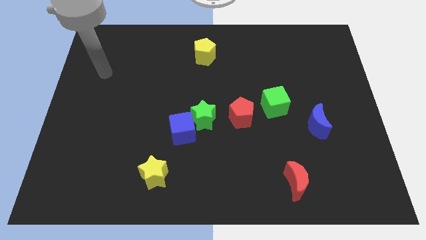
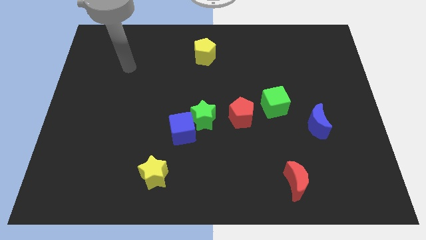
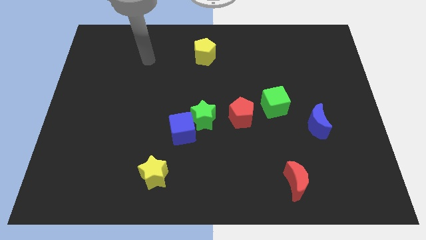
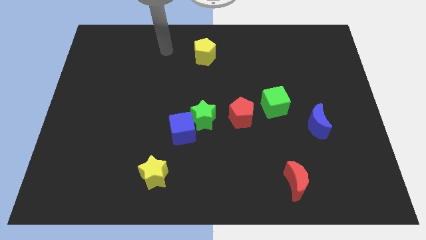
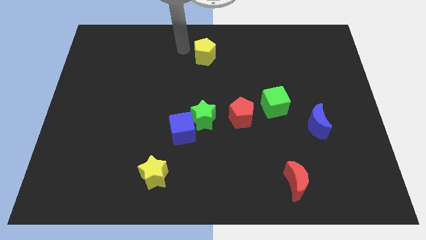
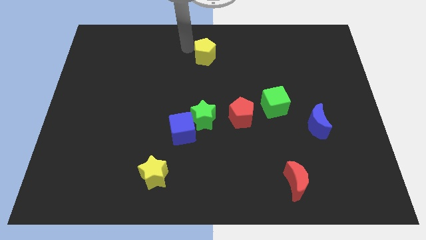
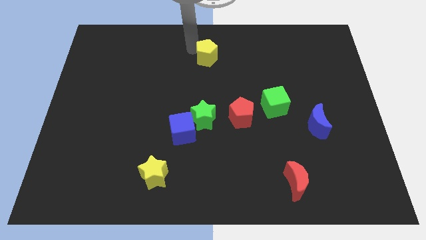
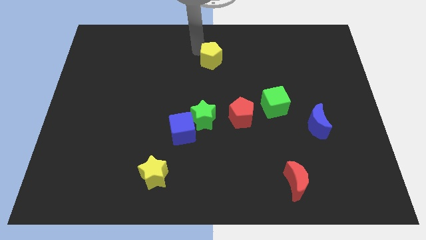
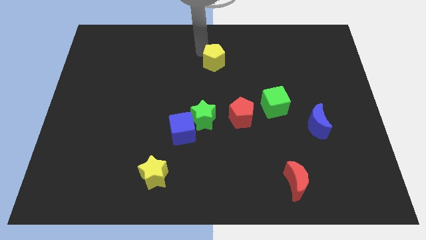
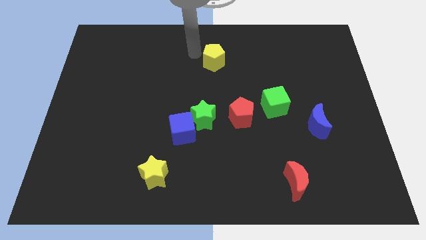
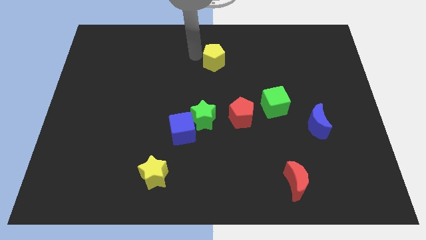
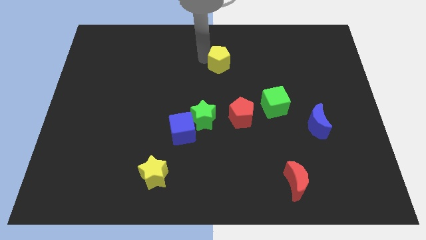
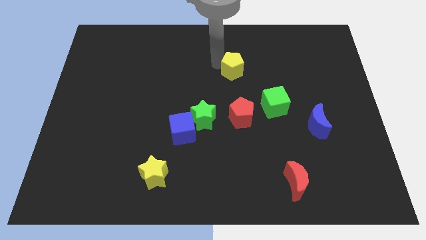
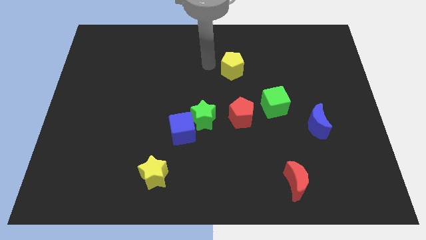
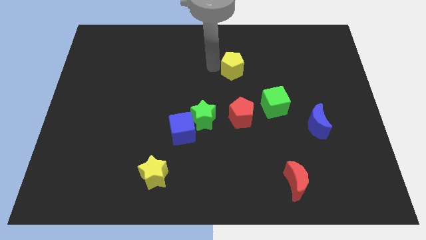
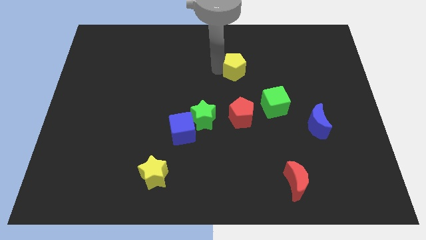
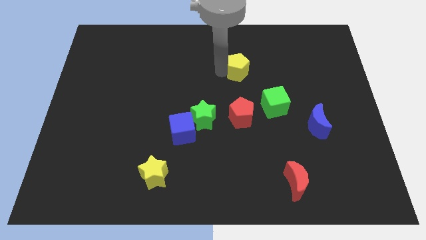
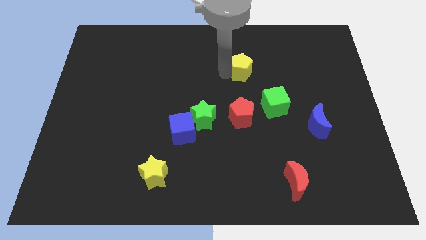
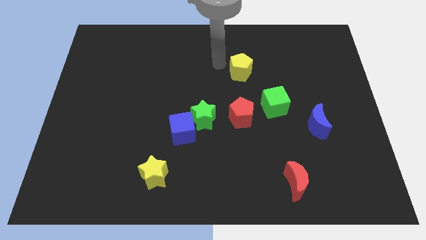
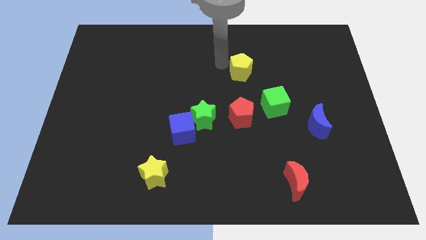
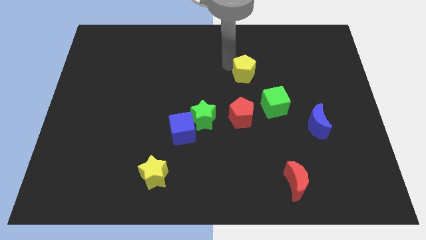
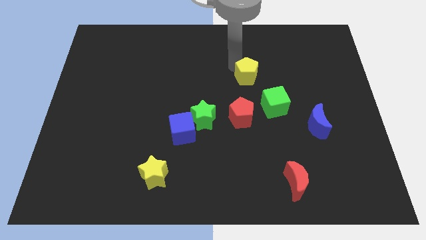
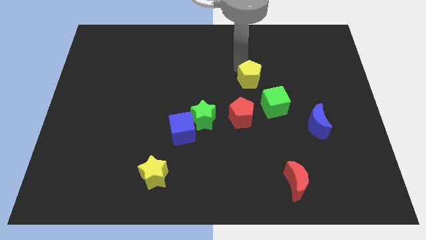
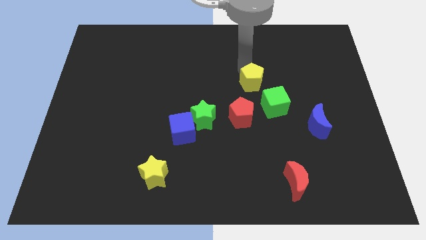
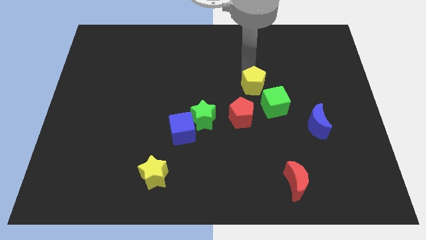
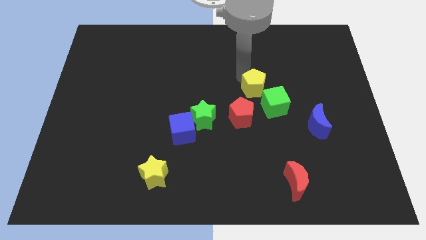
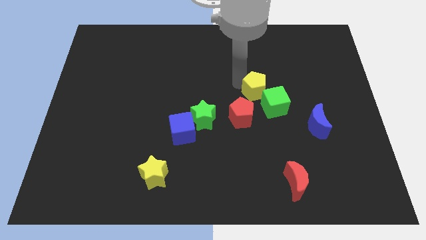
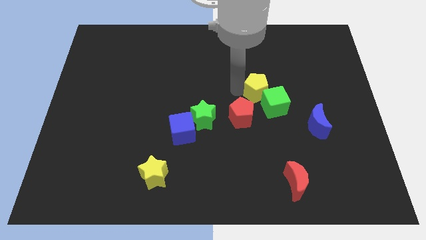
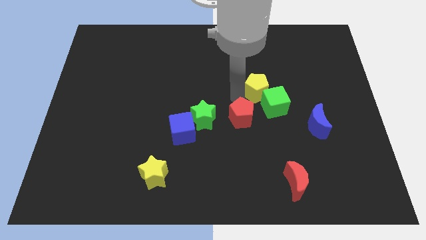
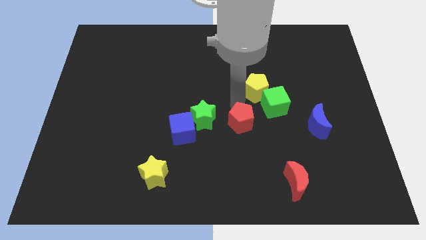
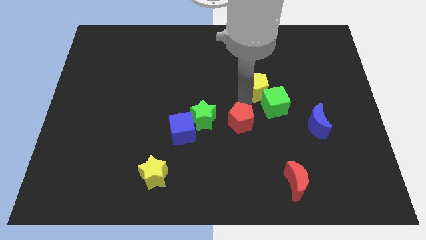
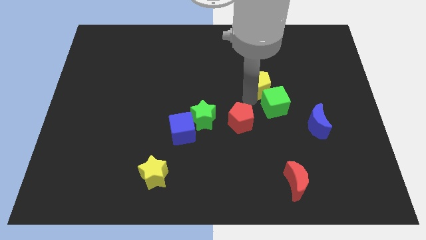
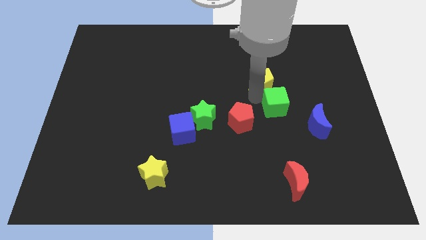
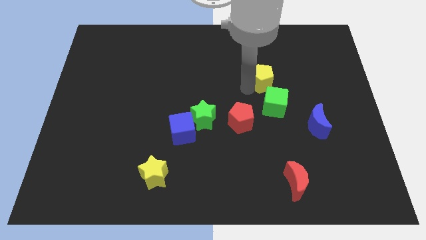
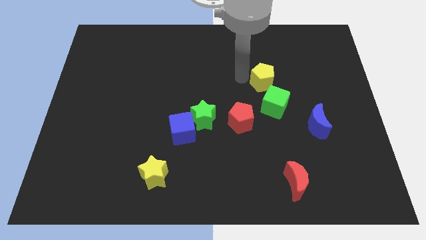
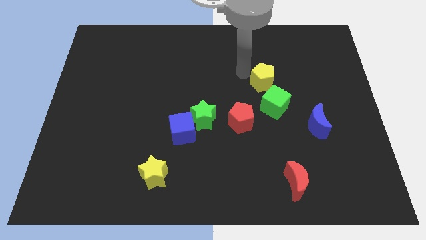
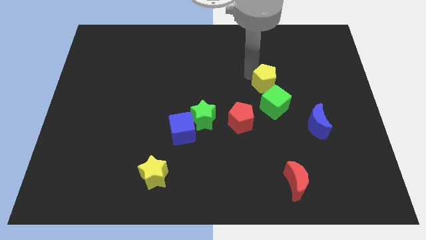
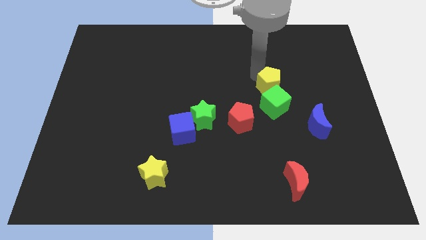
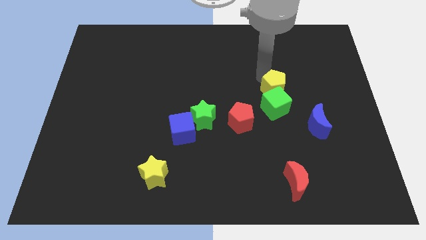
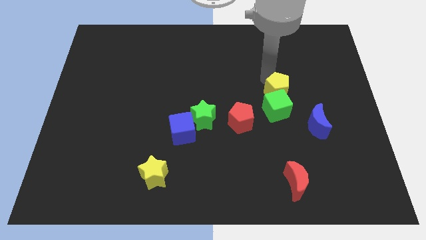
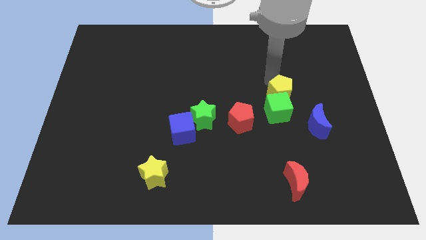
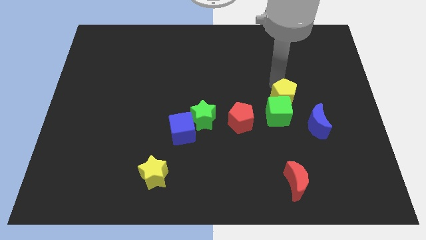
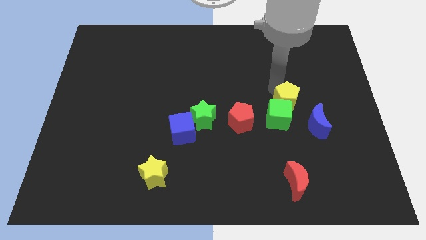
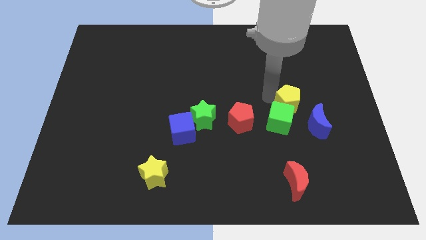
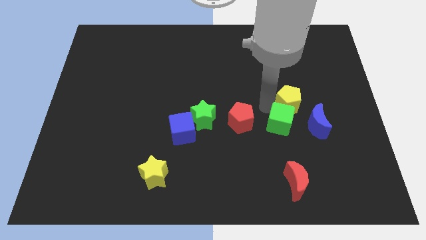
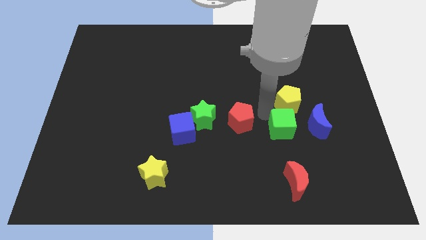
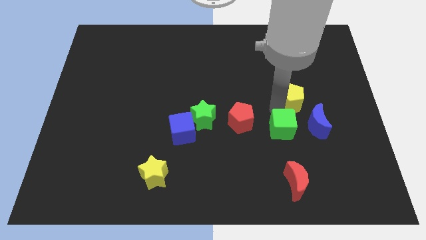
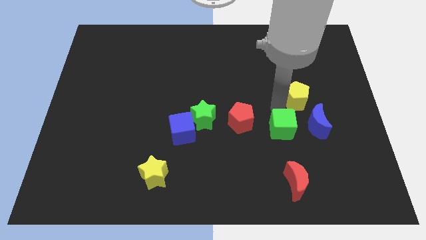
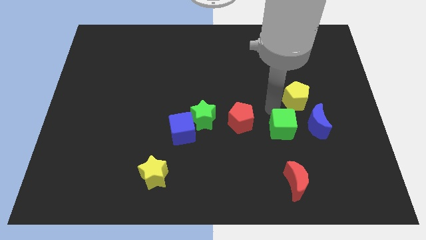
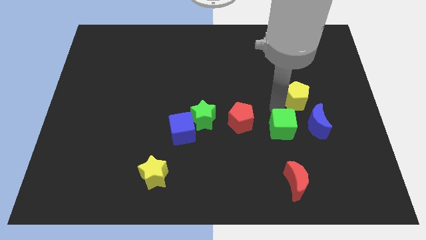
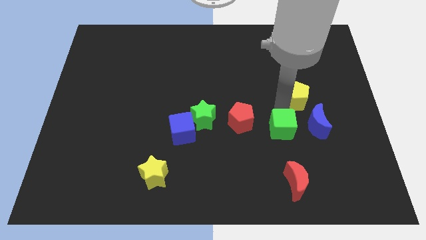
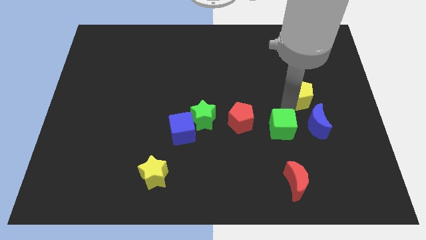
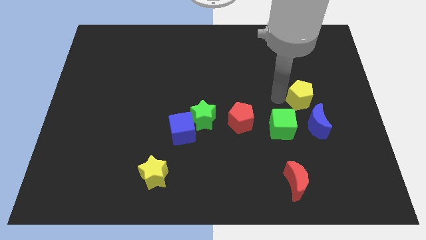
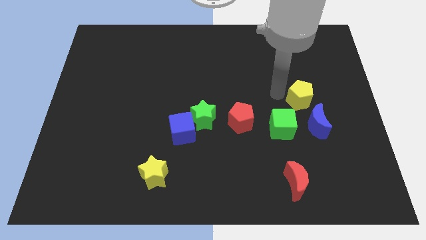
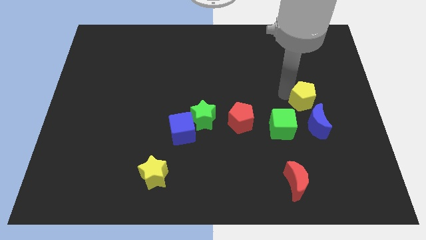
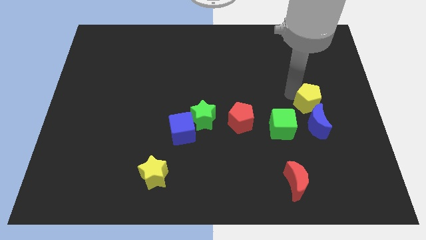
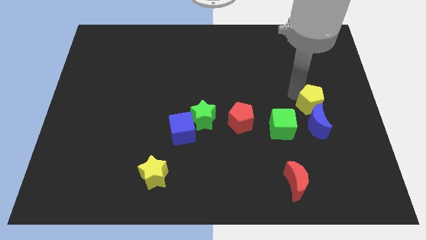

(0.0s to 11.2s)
slide the yellow pentagon diagonally up and to the right of the blue moon

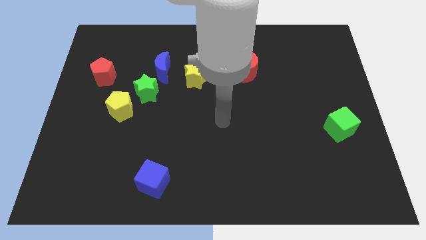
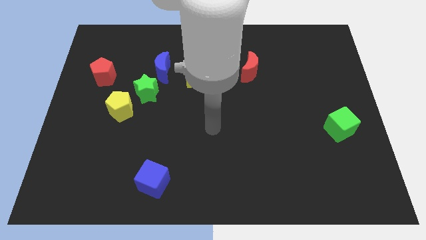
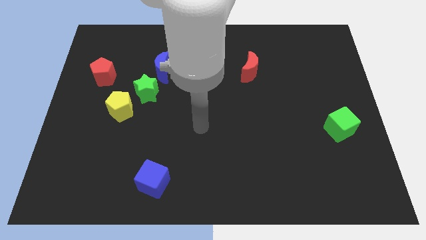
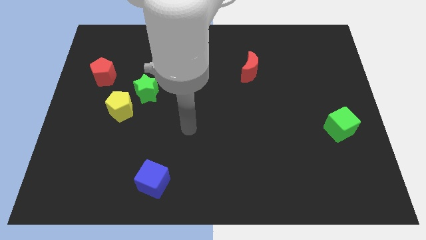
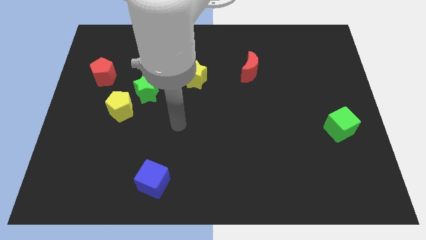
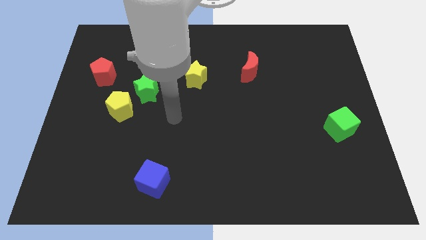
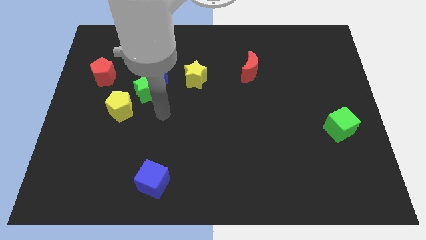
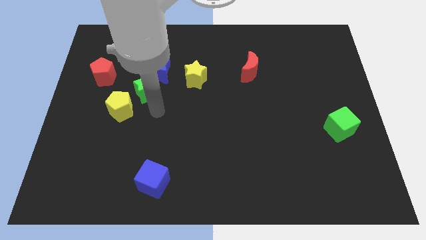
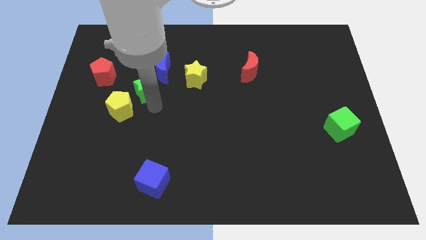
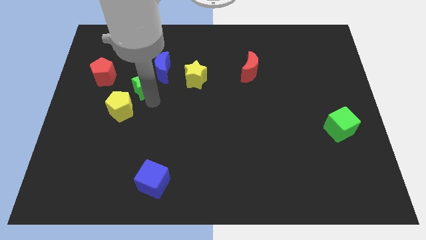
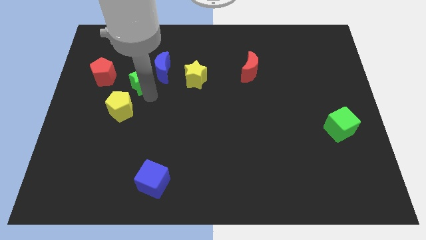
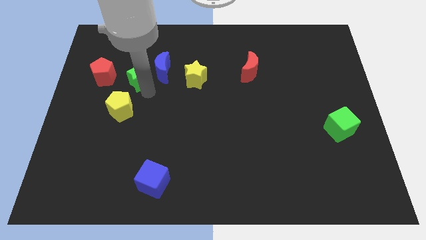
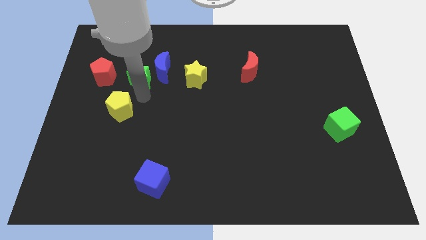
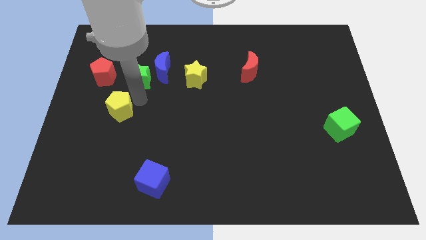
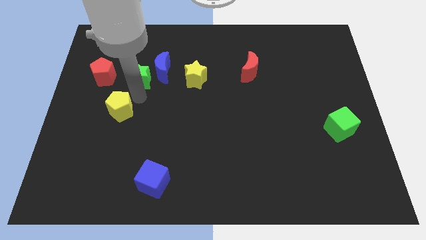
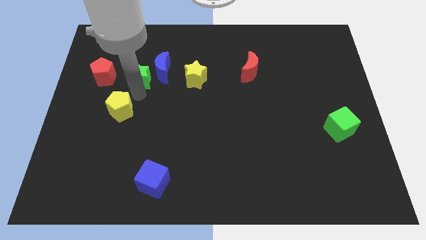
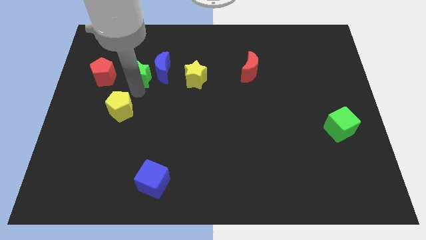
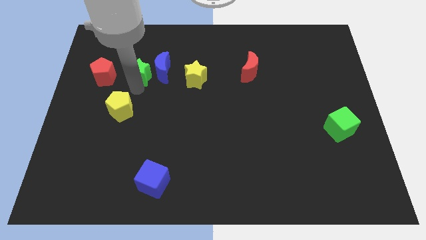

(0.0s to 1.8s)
move the green star diagonally up and to the left of the blue moon
